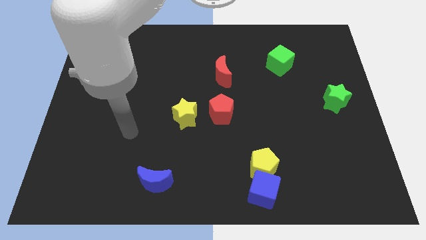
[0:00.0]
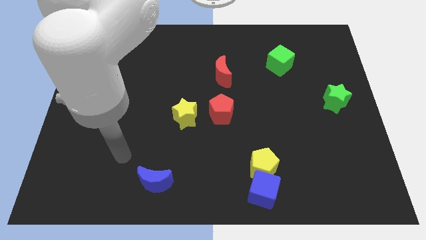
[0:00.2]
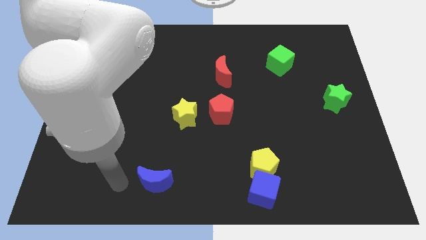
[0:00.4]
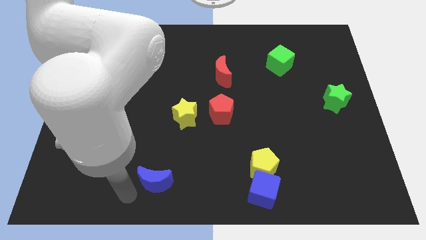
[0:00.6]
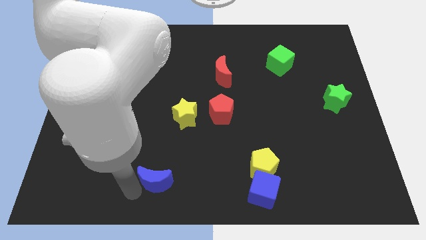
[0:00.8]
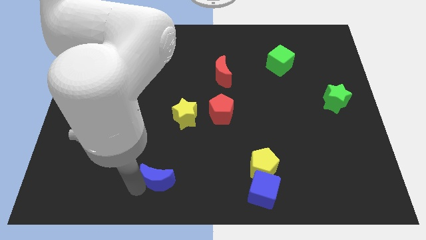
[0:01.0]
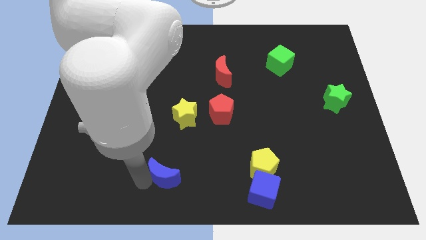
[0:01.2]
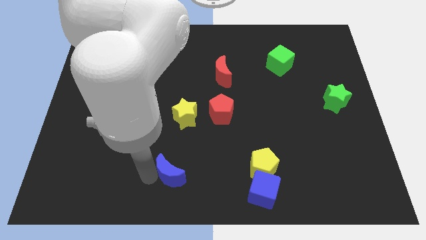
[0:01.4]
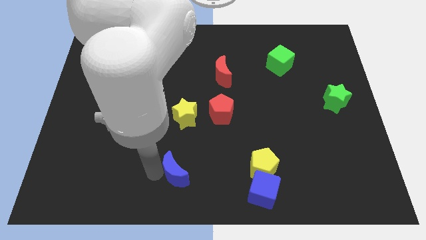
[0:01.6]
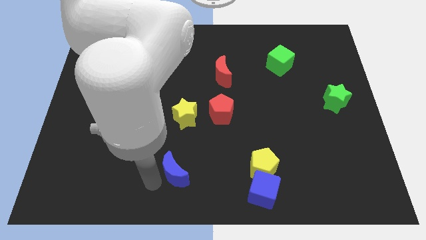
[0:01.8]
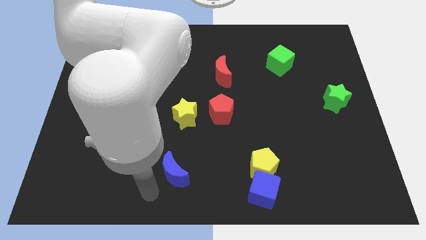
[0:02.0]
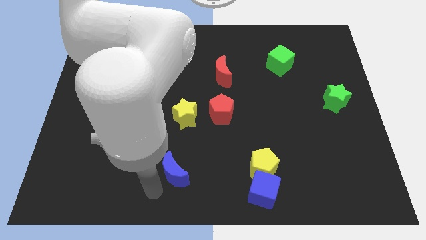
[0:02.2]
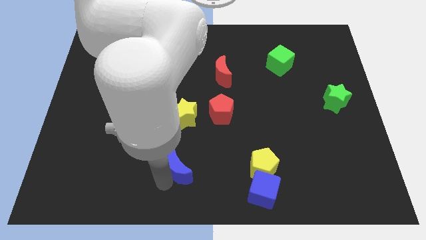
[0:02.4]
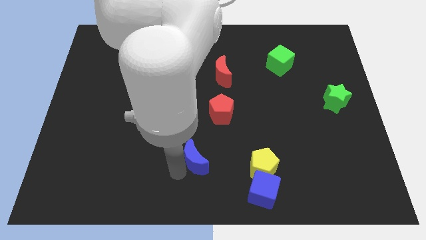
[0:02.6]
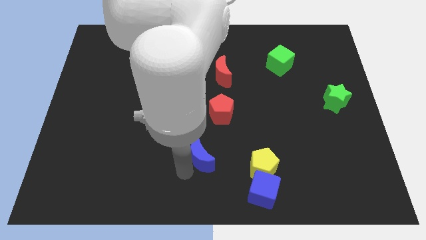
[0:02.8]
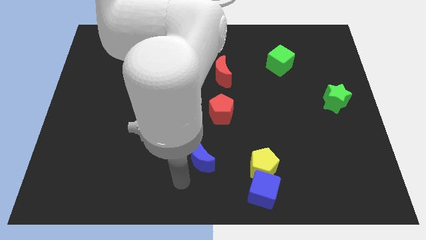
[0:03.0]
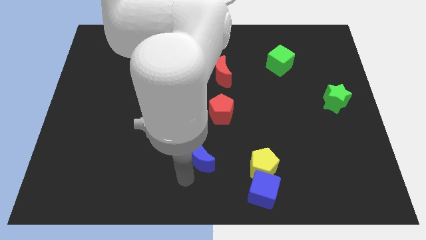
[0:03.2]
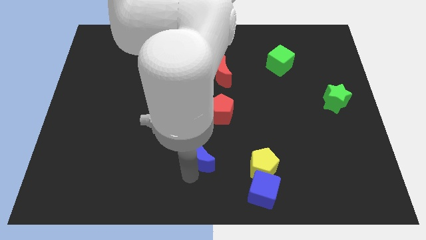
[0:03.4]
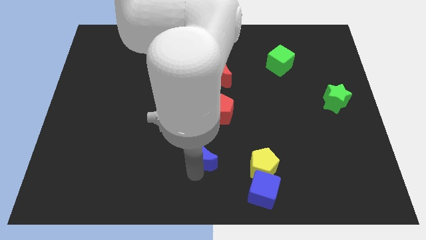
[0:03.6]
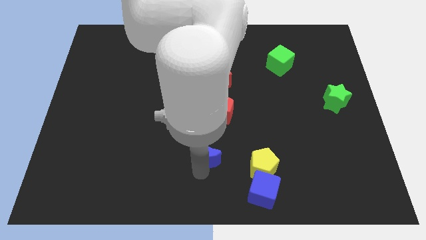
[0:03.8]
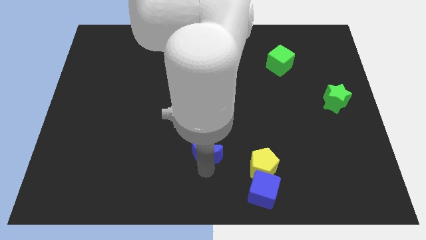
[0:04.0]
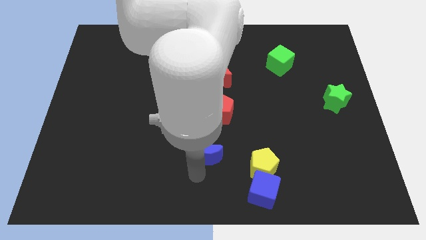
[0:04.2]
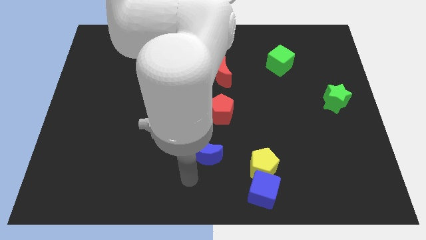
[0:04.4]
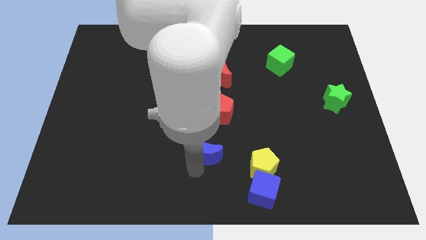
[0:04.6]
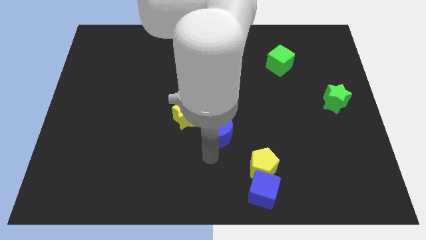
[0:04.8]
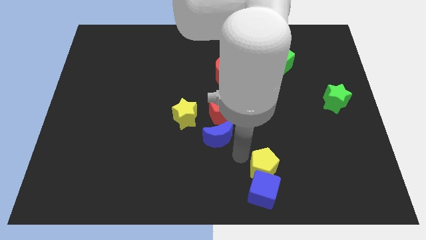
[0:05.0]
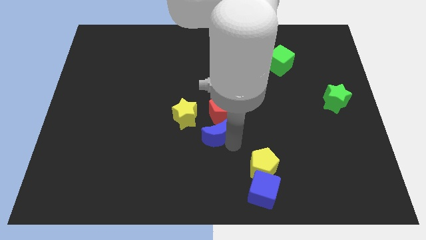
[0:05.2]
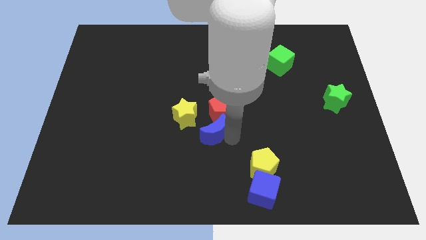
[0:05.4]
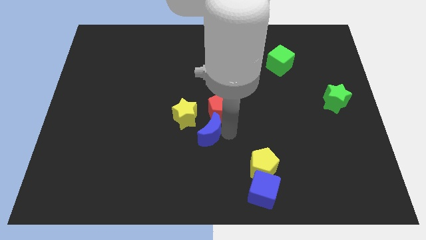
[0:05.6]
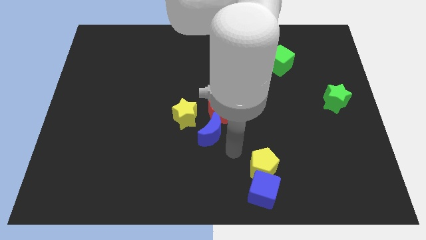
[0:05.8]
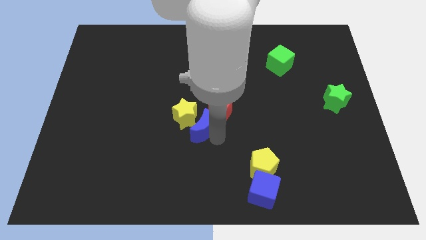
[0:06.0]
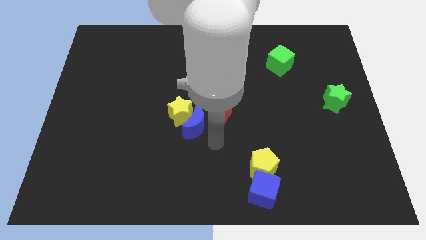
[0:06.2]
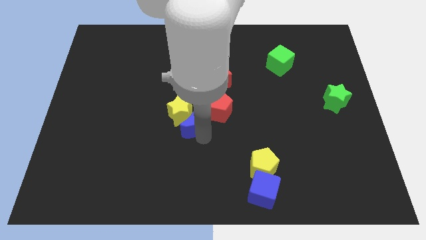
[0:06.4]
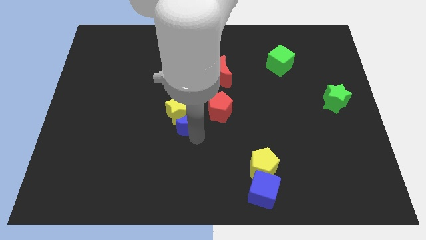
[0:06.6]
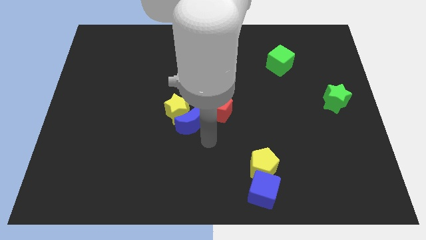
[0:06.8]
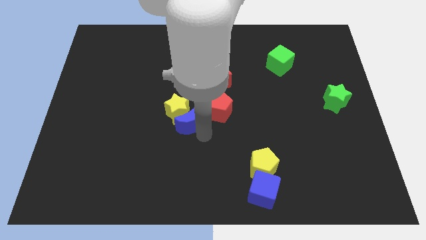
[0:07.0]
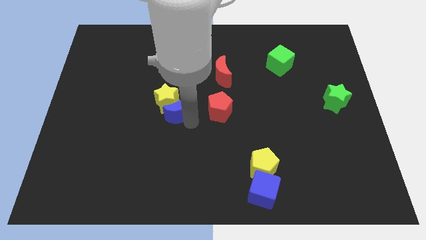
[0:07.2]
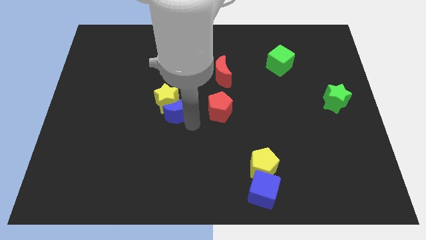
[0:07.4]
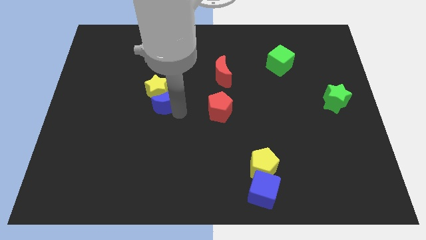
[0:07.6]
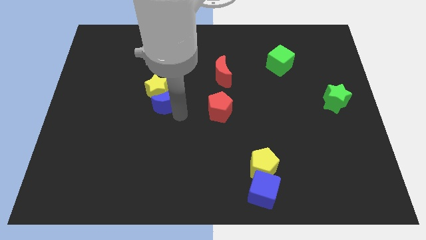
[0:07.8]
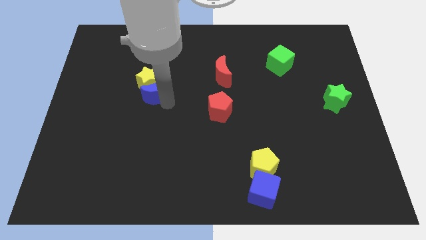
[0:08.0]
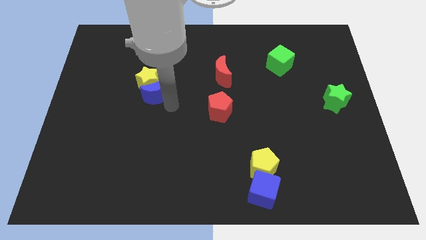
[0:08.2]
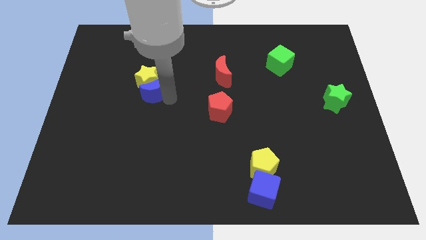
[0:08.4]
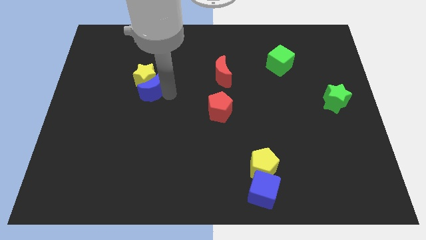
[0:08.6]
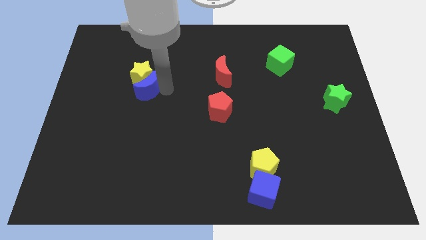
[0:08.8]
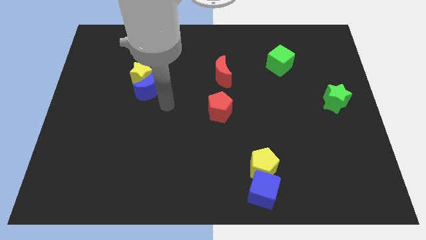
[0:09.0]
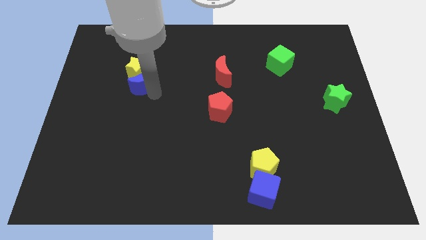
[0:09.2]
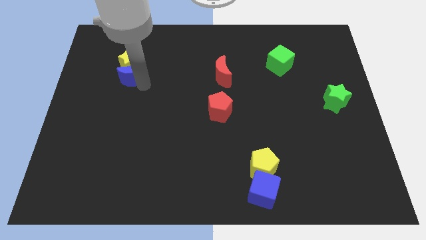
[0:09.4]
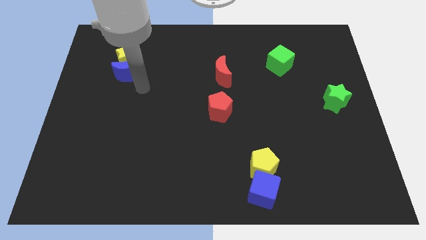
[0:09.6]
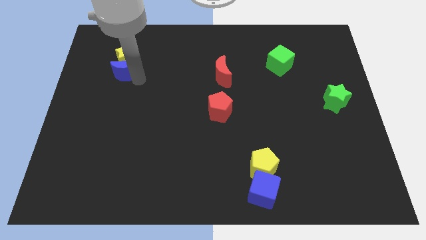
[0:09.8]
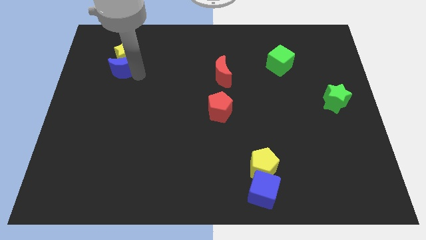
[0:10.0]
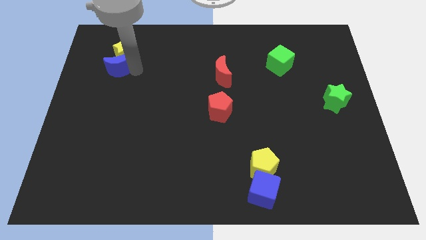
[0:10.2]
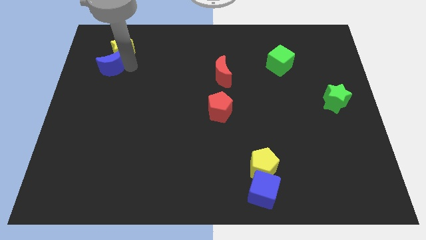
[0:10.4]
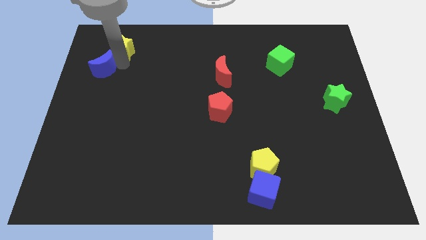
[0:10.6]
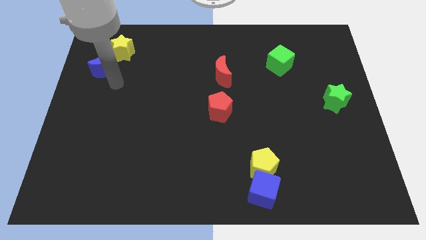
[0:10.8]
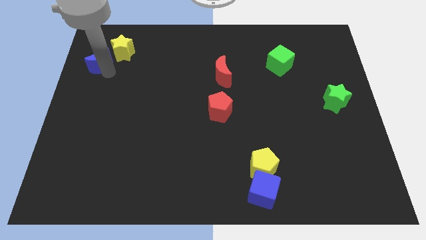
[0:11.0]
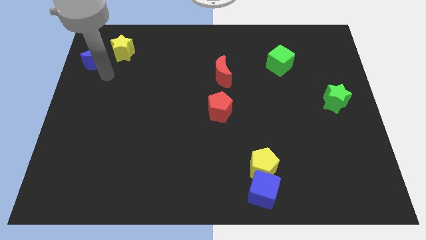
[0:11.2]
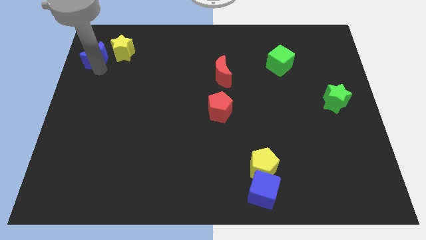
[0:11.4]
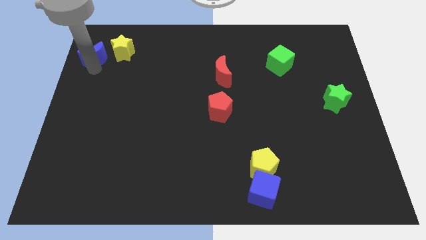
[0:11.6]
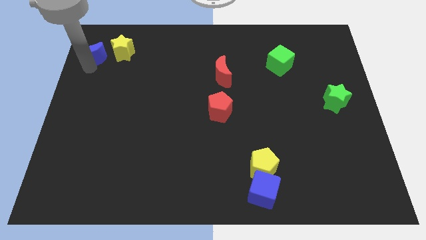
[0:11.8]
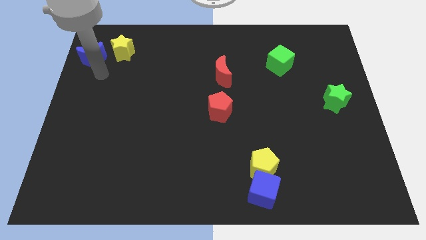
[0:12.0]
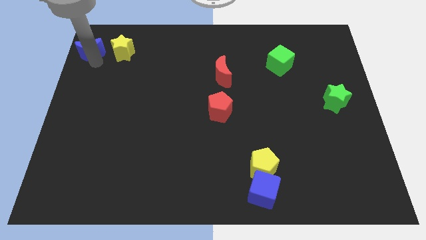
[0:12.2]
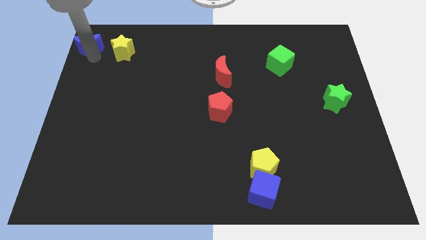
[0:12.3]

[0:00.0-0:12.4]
put the blue moon to the top left

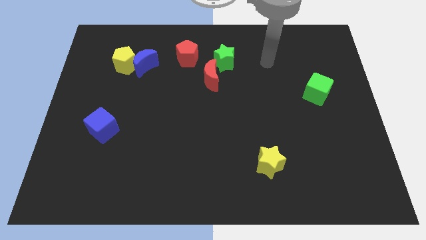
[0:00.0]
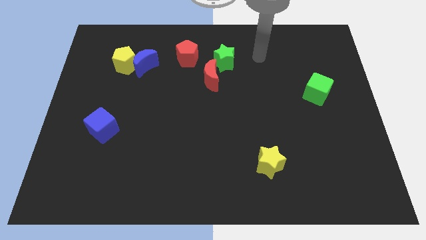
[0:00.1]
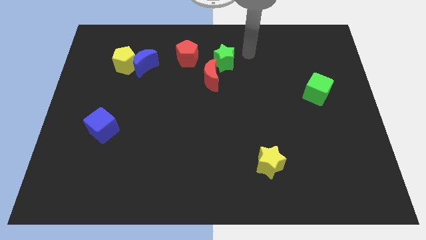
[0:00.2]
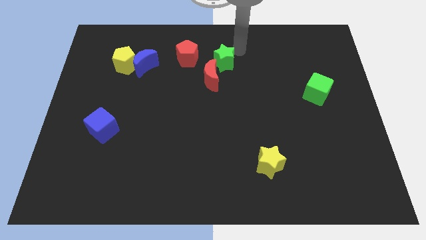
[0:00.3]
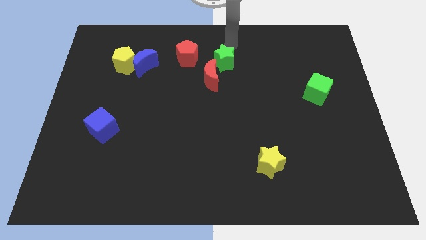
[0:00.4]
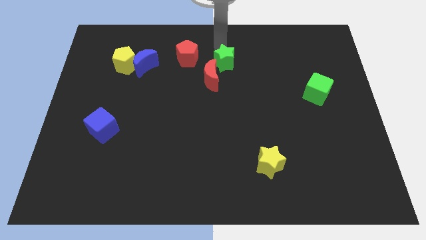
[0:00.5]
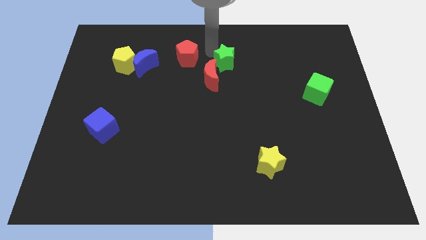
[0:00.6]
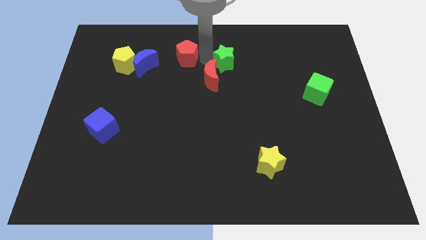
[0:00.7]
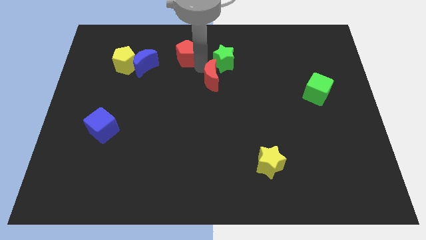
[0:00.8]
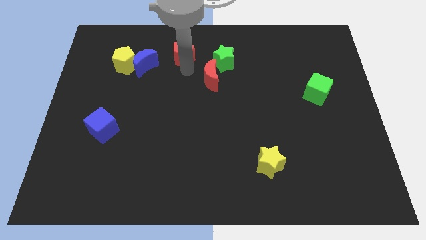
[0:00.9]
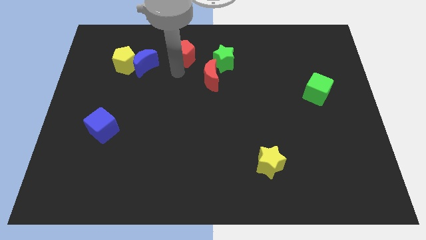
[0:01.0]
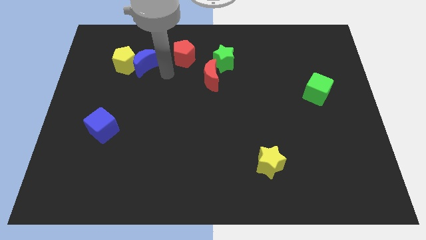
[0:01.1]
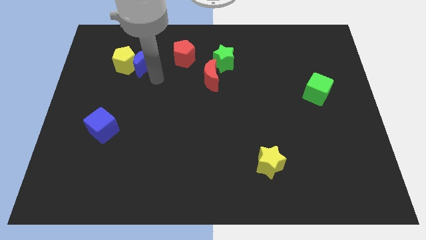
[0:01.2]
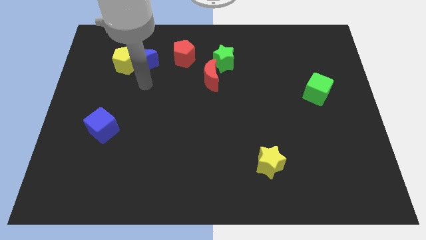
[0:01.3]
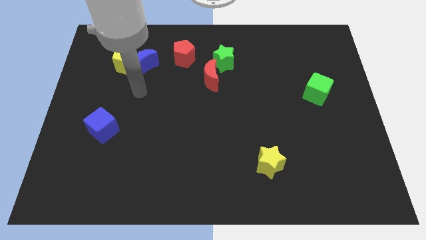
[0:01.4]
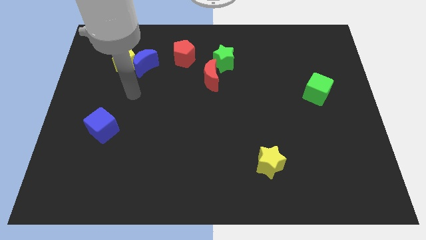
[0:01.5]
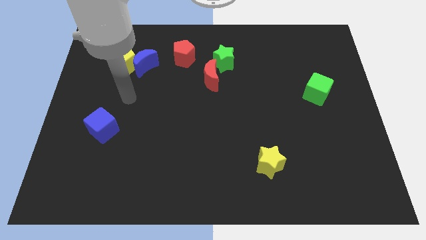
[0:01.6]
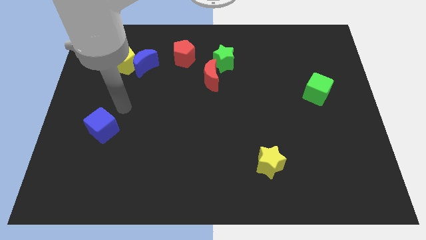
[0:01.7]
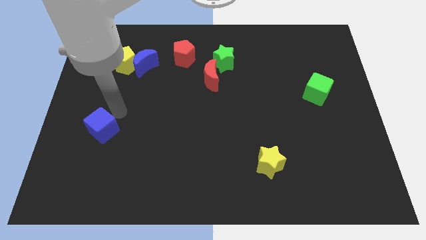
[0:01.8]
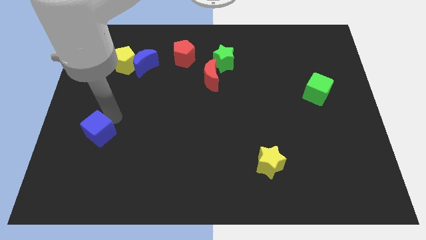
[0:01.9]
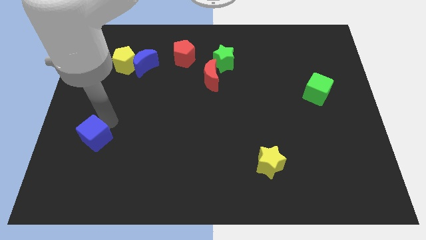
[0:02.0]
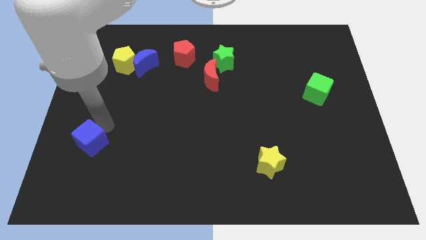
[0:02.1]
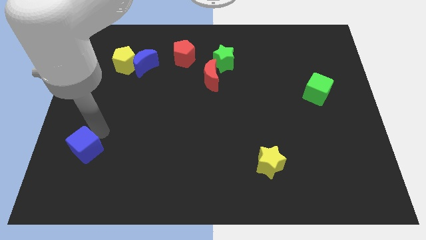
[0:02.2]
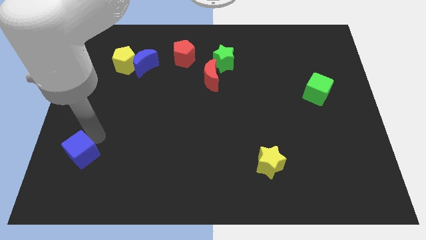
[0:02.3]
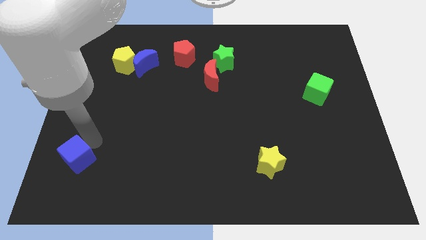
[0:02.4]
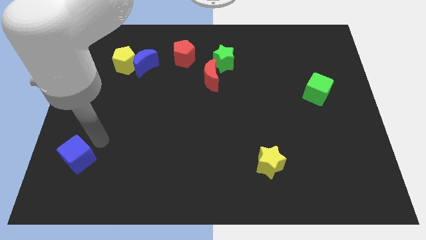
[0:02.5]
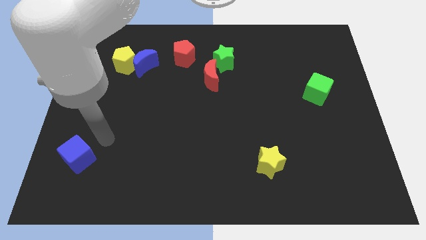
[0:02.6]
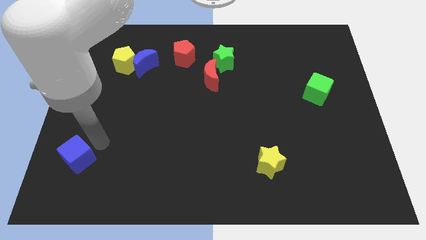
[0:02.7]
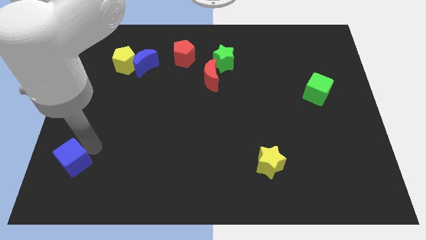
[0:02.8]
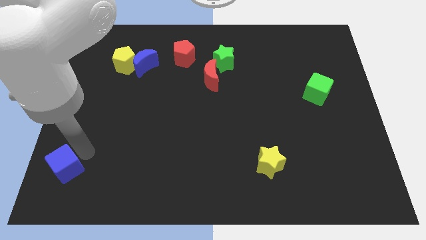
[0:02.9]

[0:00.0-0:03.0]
put the blue cube to the lower left corner
